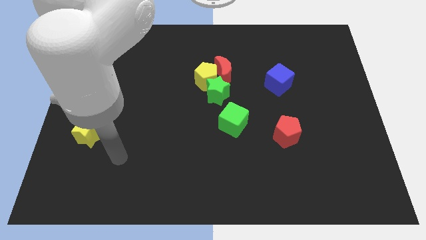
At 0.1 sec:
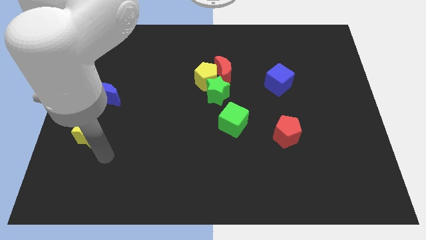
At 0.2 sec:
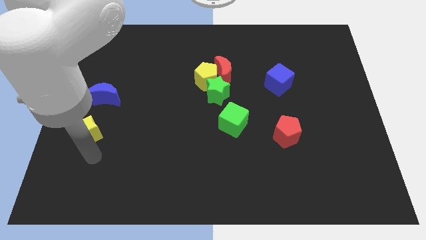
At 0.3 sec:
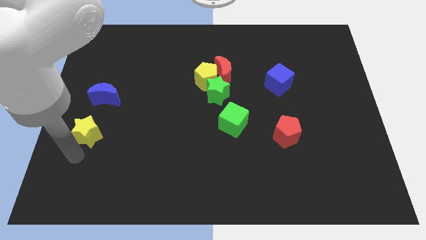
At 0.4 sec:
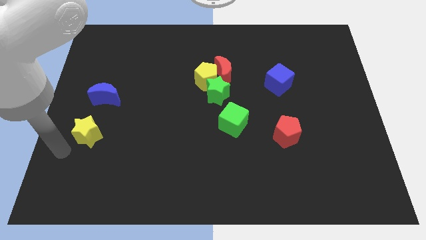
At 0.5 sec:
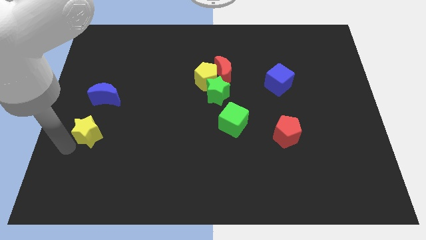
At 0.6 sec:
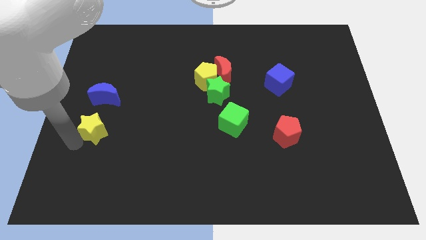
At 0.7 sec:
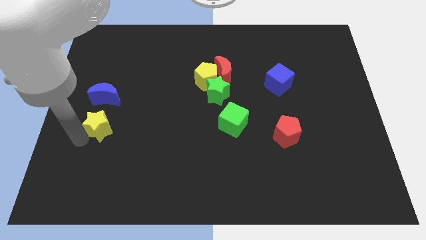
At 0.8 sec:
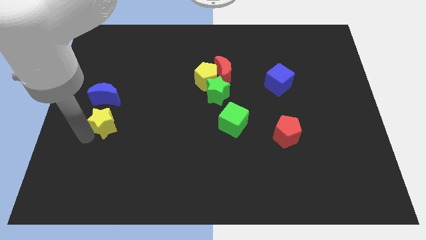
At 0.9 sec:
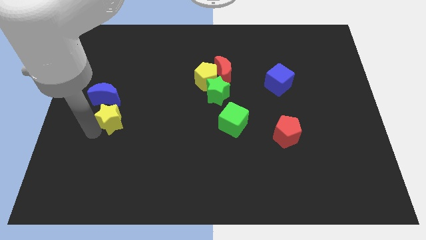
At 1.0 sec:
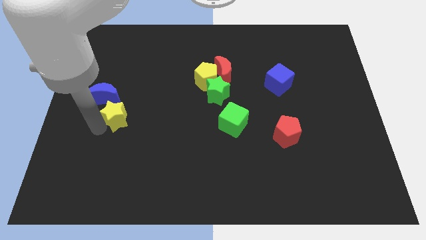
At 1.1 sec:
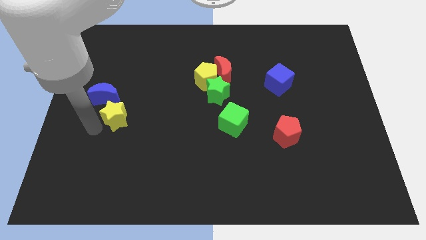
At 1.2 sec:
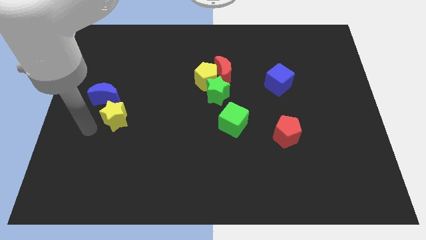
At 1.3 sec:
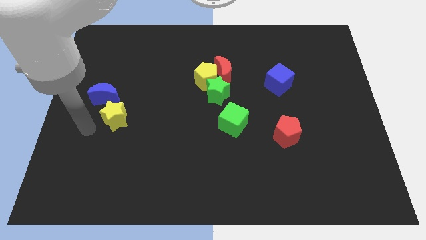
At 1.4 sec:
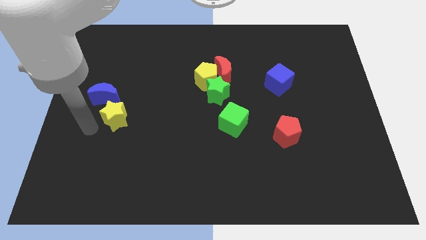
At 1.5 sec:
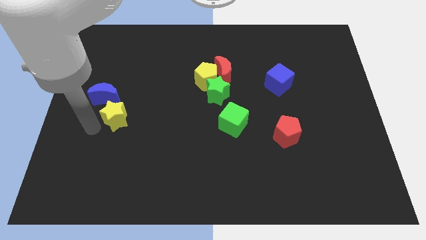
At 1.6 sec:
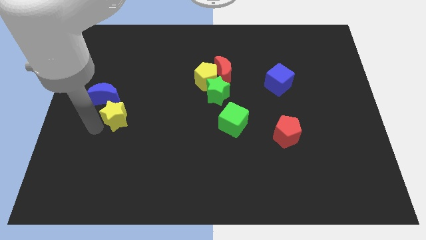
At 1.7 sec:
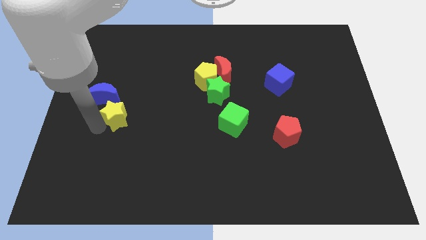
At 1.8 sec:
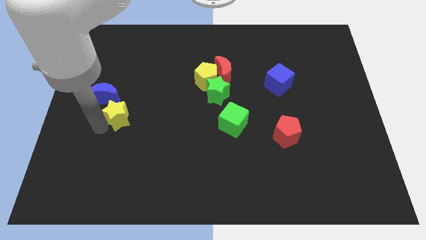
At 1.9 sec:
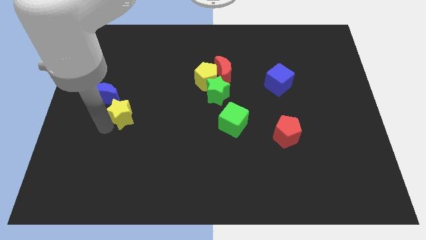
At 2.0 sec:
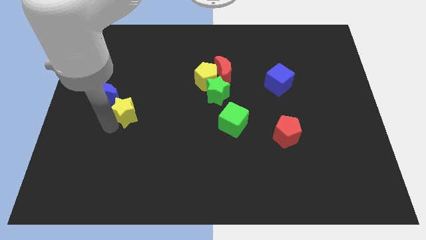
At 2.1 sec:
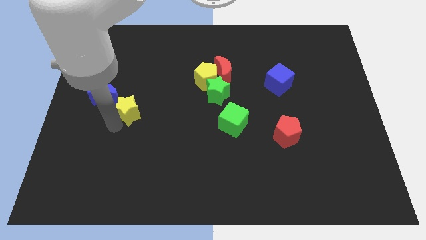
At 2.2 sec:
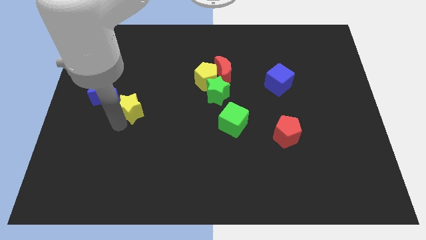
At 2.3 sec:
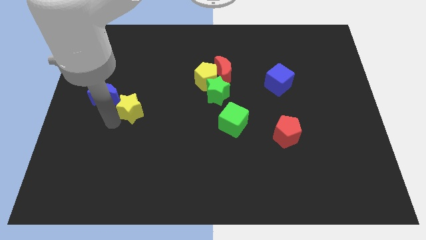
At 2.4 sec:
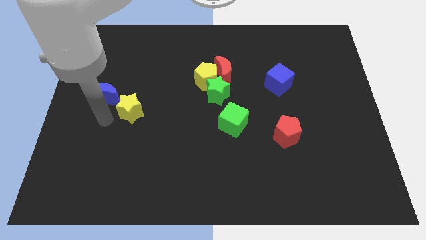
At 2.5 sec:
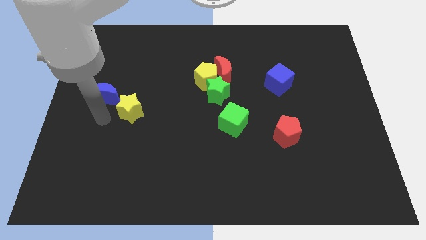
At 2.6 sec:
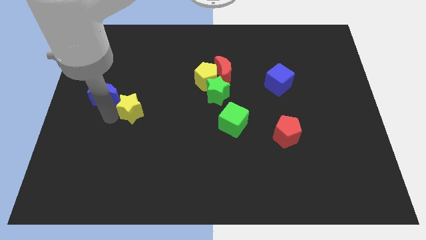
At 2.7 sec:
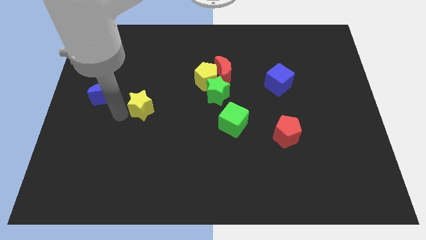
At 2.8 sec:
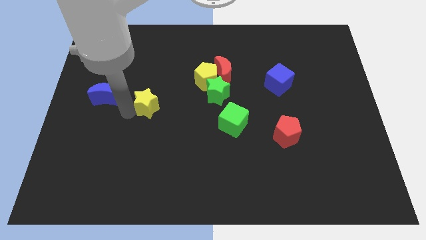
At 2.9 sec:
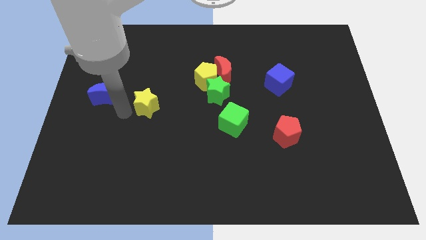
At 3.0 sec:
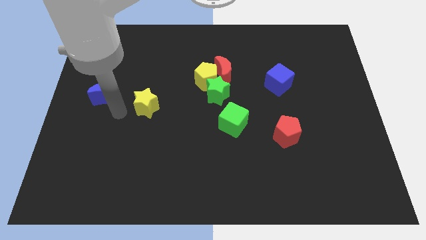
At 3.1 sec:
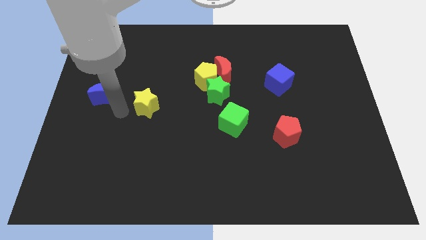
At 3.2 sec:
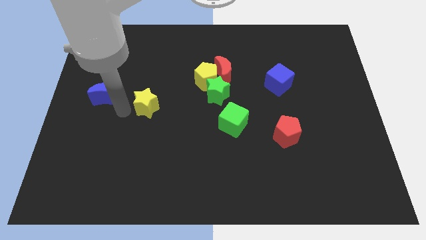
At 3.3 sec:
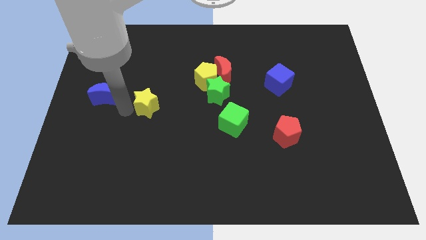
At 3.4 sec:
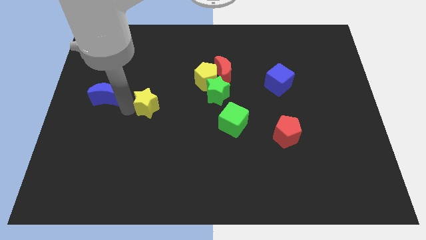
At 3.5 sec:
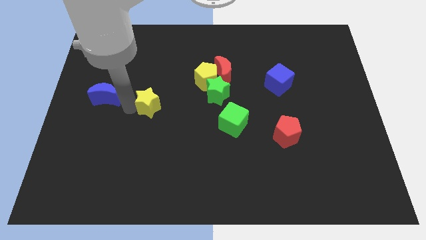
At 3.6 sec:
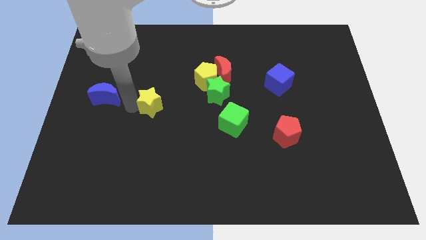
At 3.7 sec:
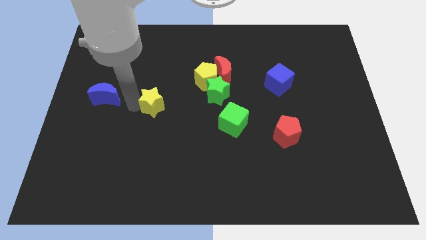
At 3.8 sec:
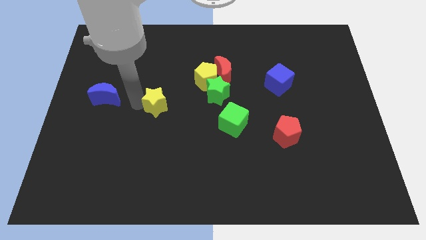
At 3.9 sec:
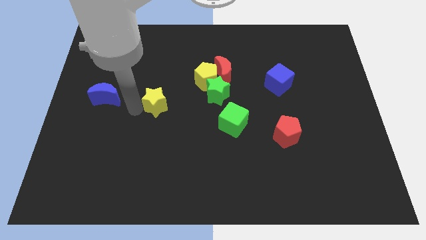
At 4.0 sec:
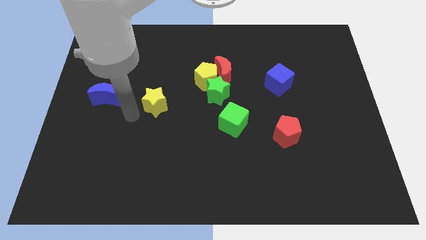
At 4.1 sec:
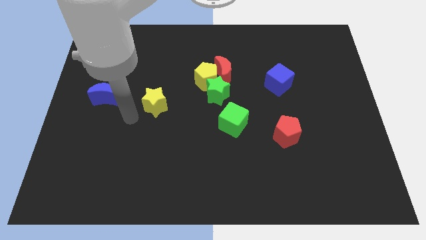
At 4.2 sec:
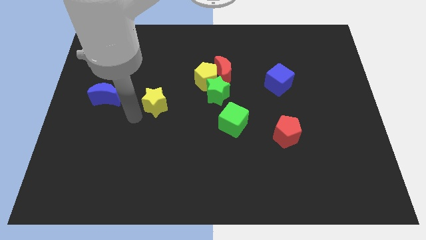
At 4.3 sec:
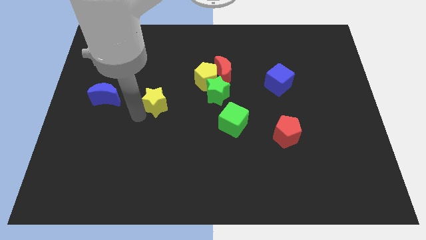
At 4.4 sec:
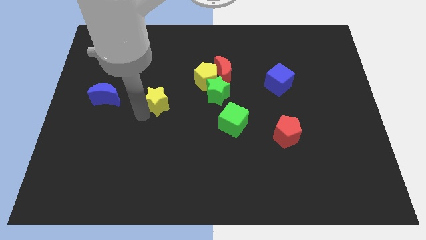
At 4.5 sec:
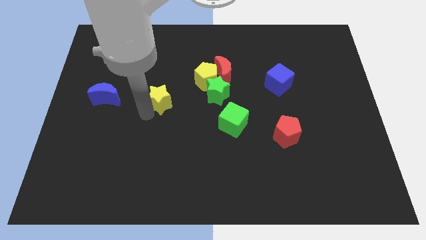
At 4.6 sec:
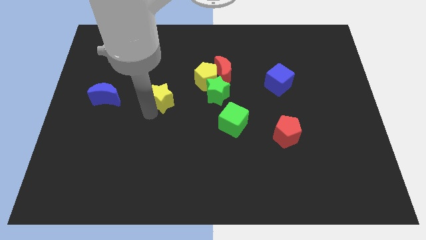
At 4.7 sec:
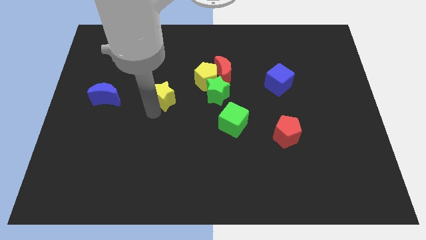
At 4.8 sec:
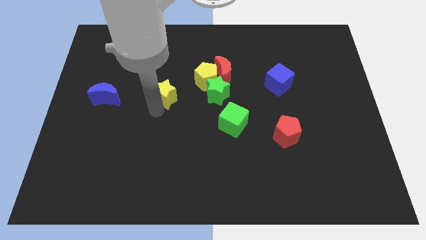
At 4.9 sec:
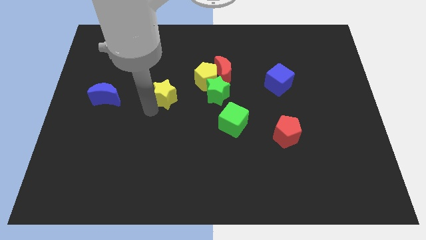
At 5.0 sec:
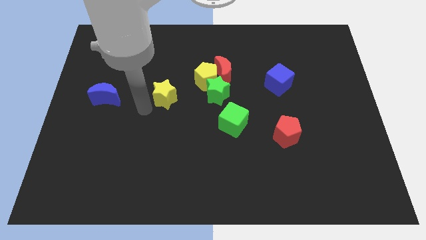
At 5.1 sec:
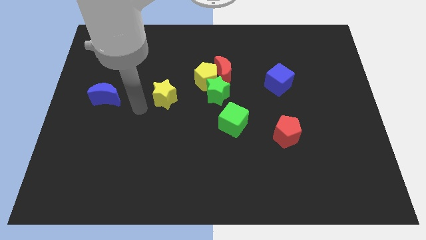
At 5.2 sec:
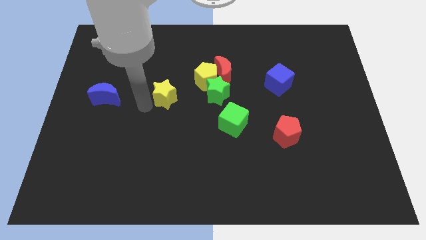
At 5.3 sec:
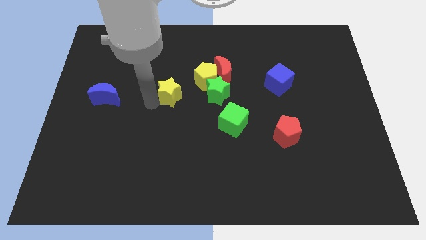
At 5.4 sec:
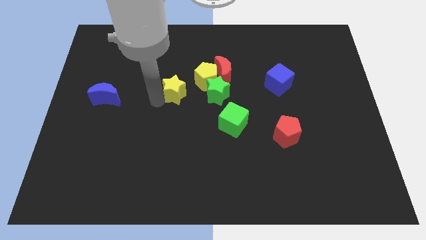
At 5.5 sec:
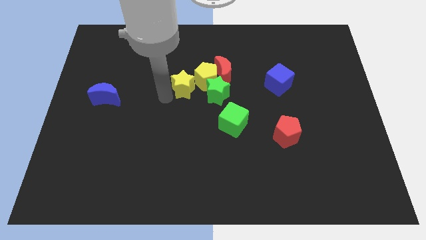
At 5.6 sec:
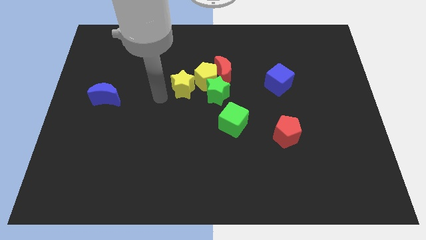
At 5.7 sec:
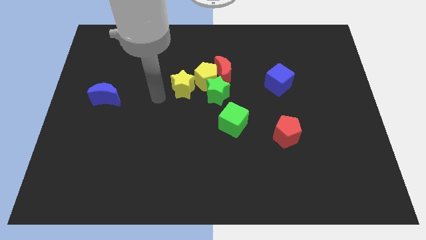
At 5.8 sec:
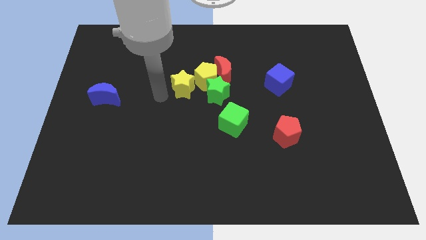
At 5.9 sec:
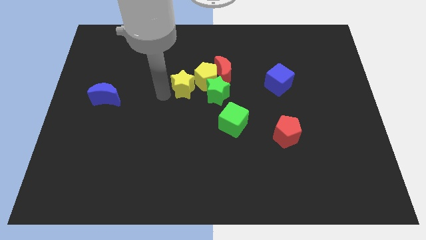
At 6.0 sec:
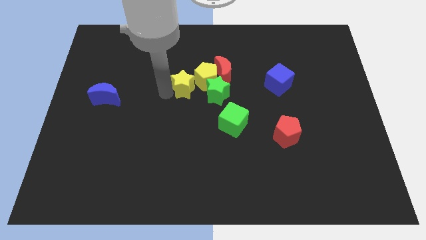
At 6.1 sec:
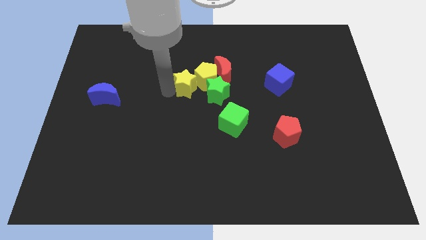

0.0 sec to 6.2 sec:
move the yellow star next to the yellow pentagon

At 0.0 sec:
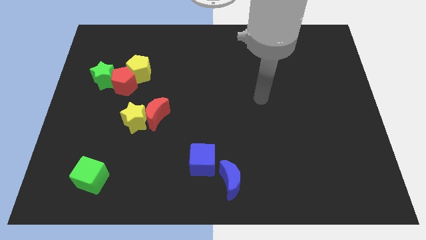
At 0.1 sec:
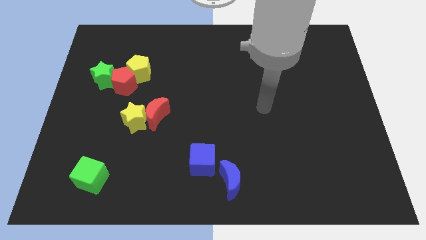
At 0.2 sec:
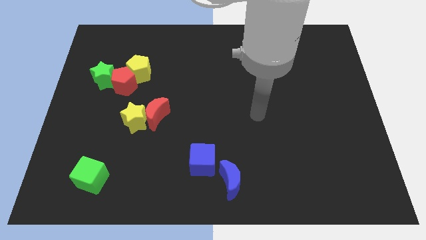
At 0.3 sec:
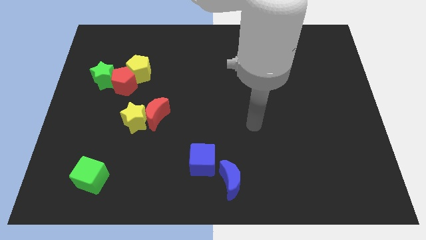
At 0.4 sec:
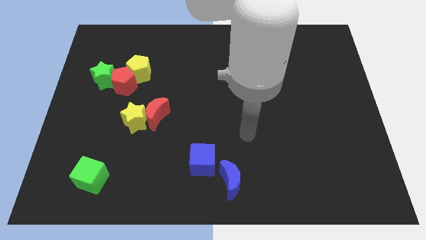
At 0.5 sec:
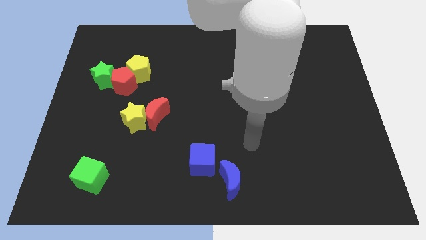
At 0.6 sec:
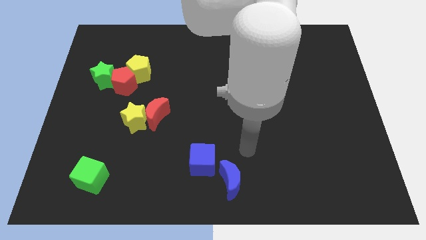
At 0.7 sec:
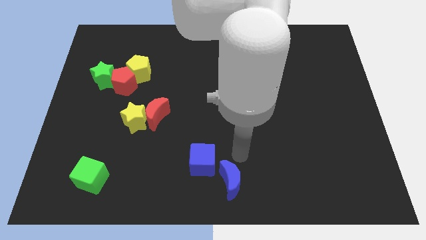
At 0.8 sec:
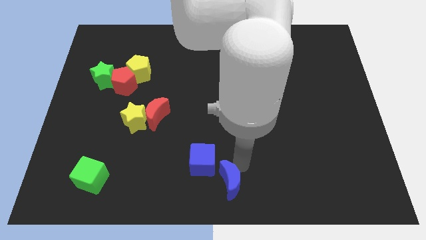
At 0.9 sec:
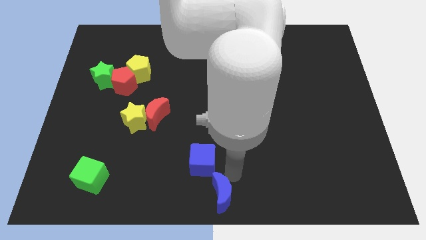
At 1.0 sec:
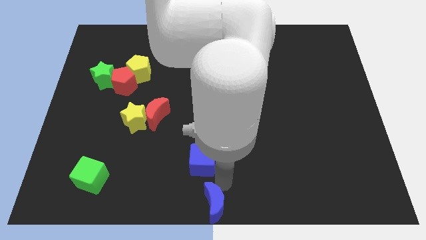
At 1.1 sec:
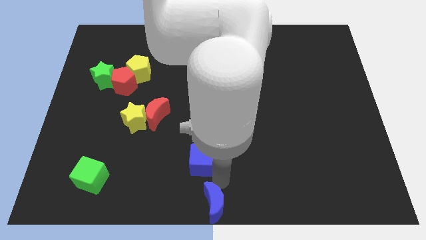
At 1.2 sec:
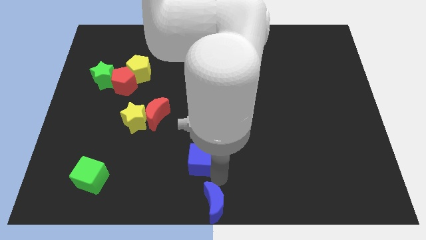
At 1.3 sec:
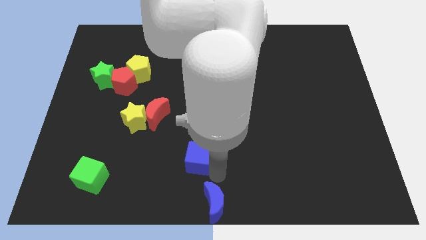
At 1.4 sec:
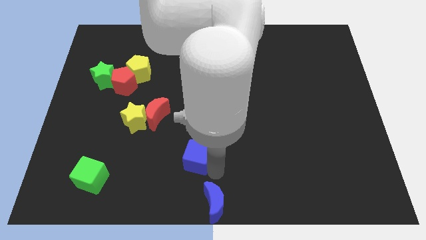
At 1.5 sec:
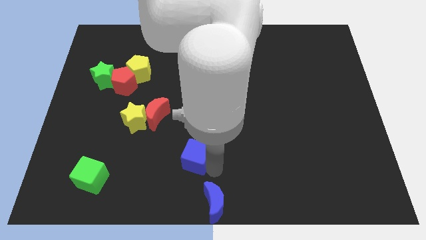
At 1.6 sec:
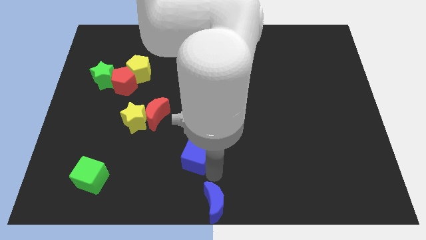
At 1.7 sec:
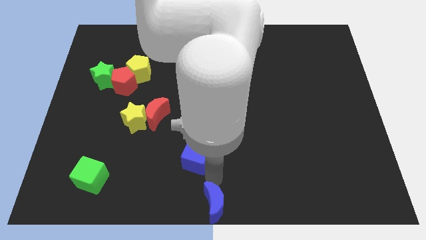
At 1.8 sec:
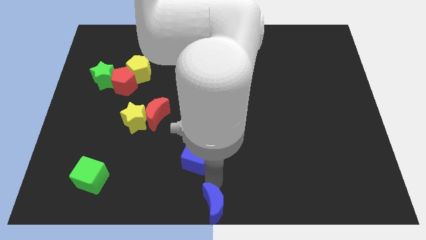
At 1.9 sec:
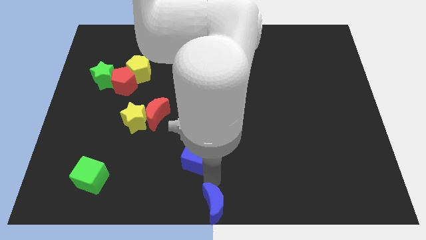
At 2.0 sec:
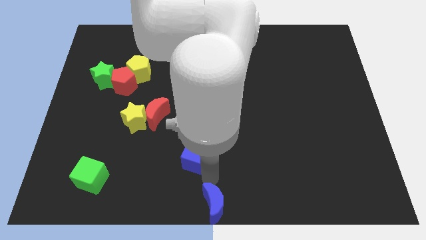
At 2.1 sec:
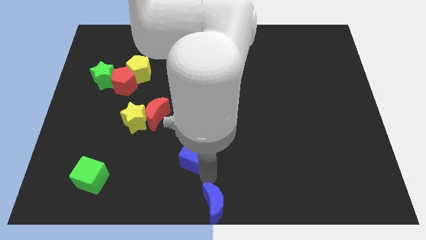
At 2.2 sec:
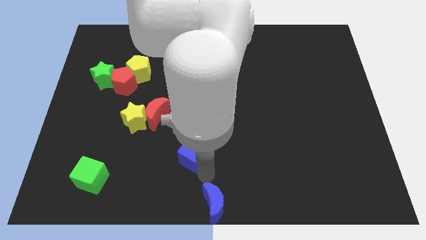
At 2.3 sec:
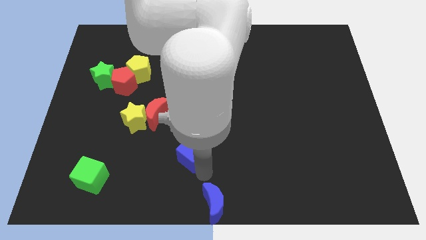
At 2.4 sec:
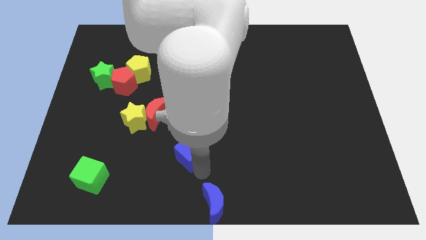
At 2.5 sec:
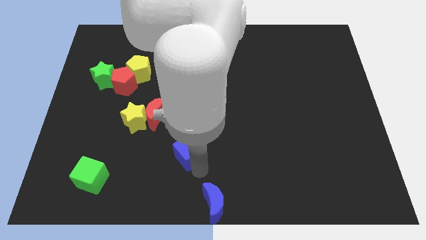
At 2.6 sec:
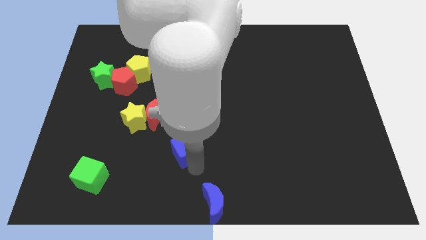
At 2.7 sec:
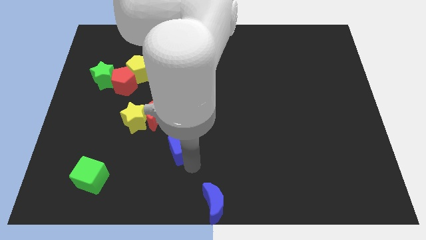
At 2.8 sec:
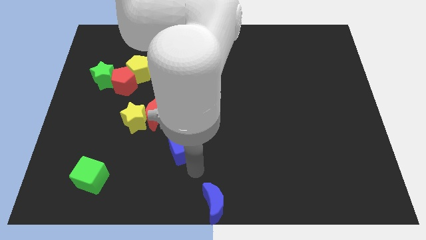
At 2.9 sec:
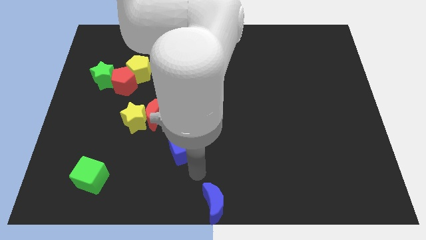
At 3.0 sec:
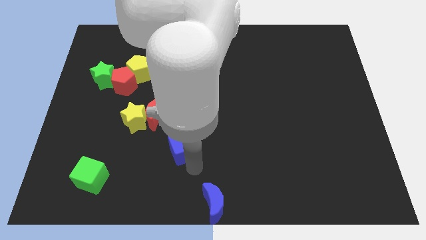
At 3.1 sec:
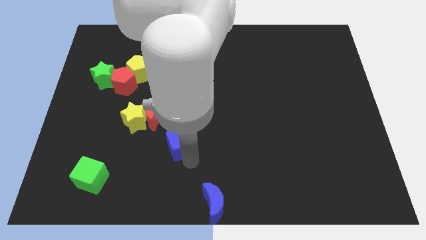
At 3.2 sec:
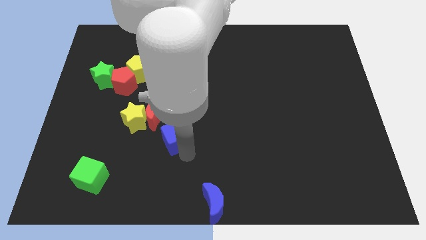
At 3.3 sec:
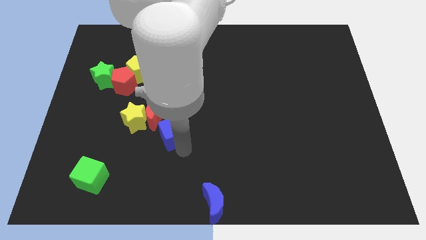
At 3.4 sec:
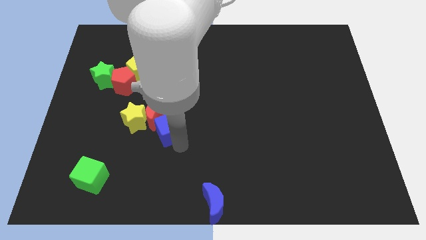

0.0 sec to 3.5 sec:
move the blue cube to the red moon
